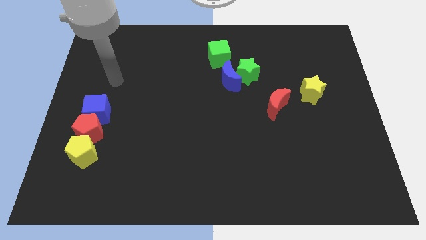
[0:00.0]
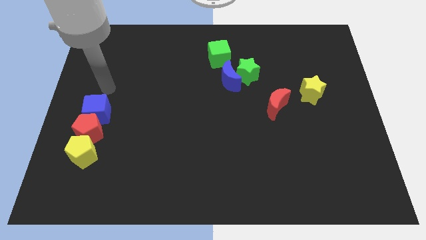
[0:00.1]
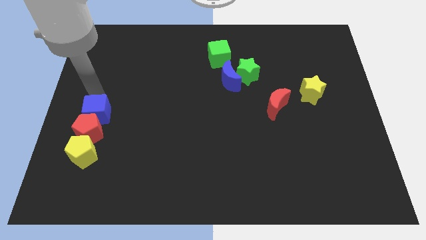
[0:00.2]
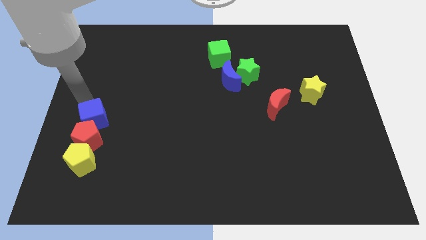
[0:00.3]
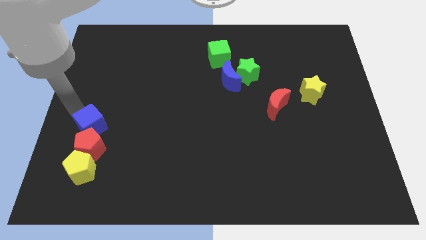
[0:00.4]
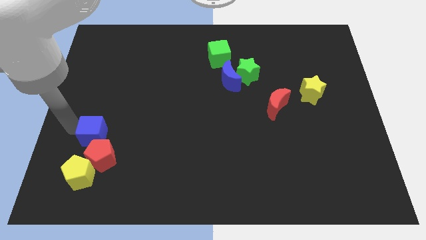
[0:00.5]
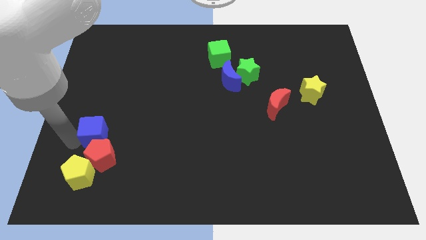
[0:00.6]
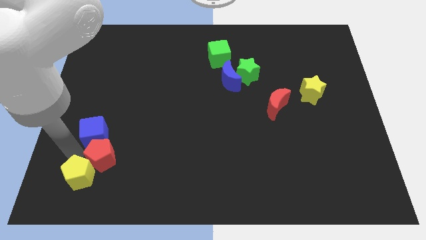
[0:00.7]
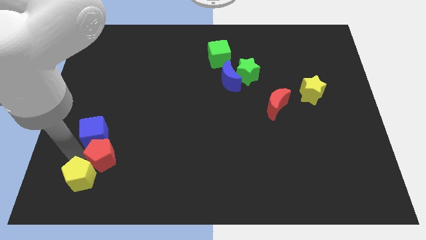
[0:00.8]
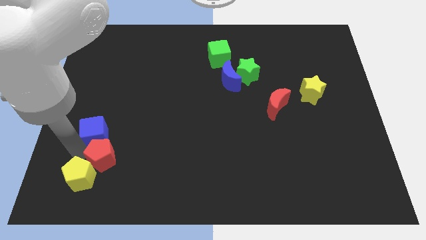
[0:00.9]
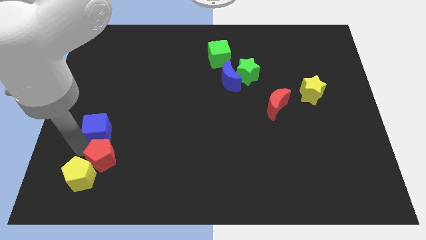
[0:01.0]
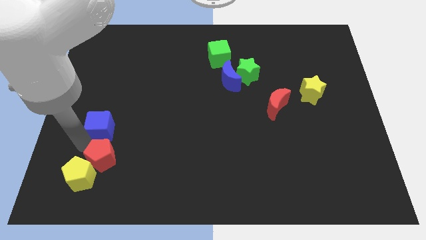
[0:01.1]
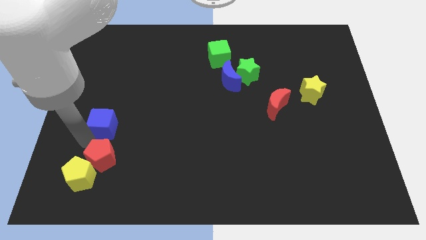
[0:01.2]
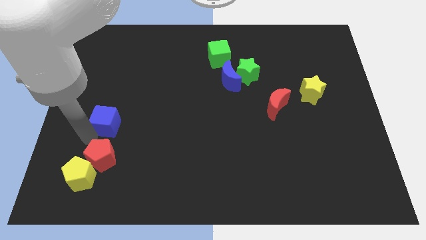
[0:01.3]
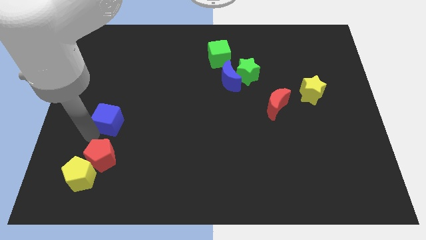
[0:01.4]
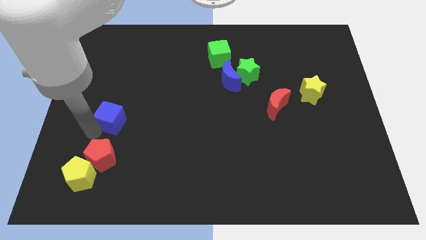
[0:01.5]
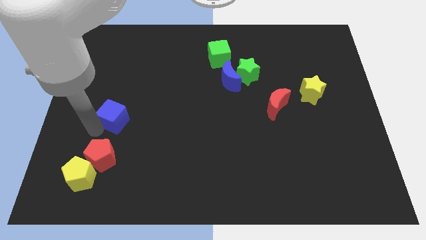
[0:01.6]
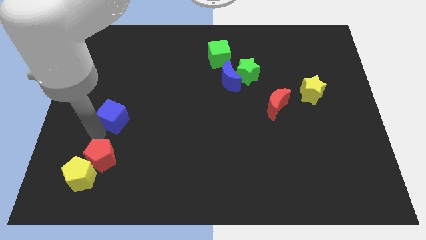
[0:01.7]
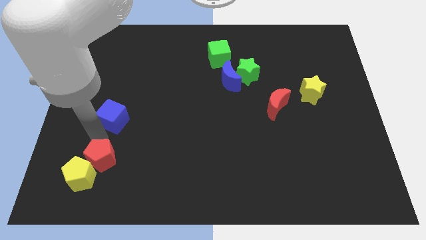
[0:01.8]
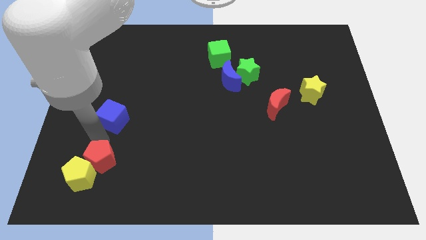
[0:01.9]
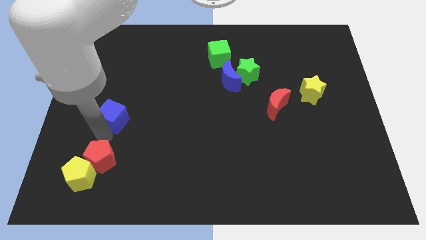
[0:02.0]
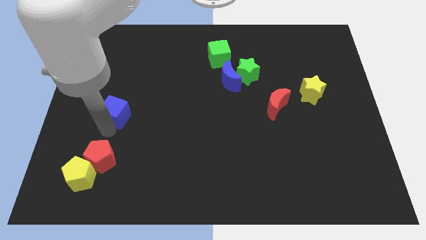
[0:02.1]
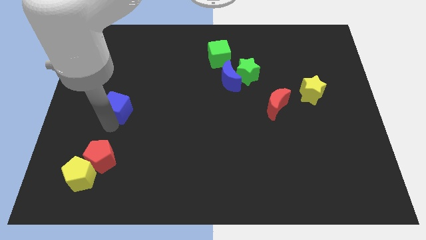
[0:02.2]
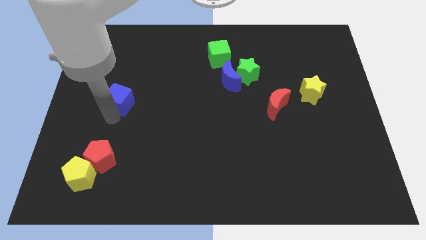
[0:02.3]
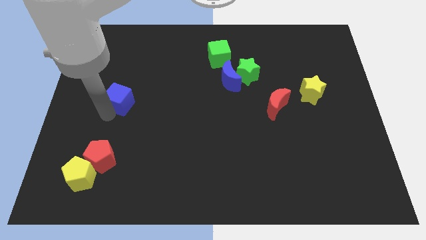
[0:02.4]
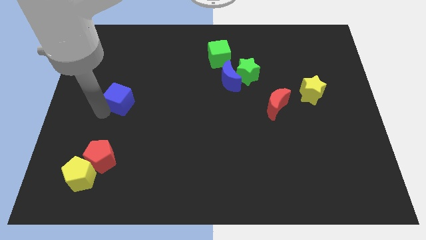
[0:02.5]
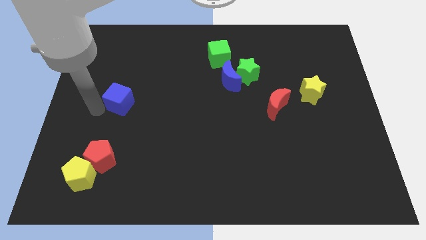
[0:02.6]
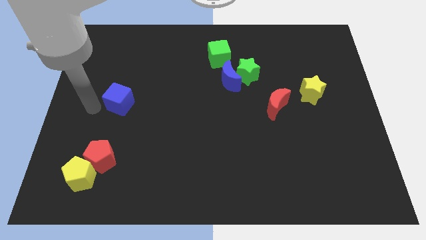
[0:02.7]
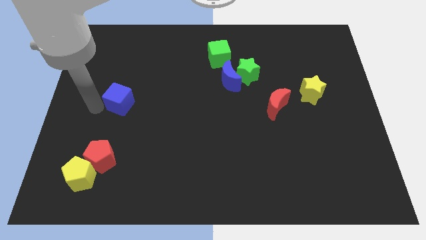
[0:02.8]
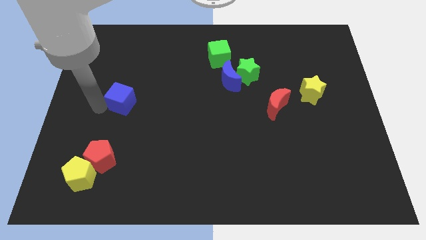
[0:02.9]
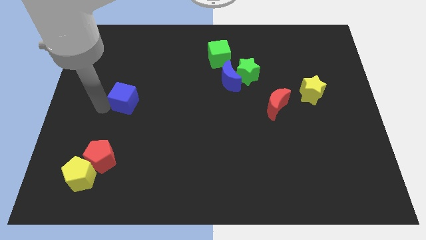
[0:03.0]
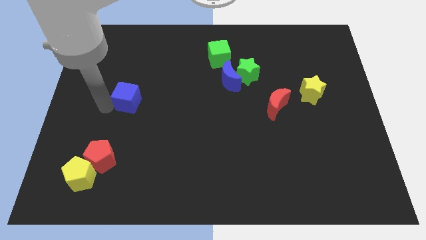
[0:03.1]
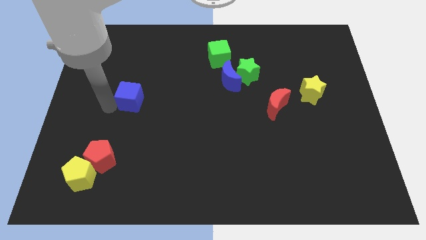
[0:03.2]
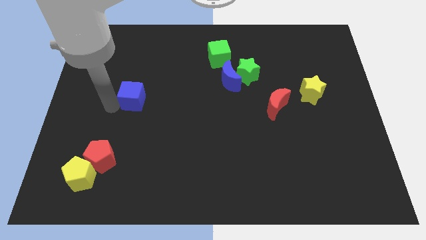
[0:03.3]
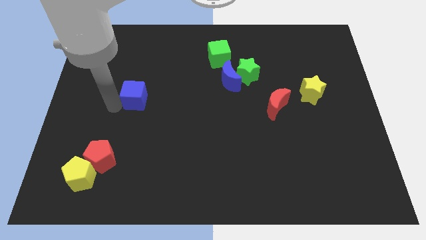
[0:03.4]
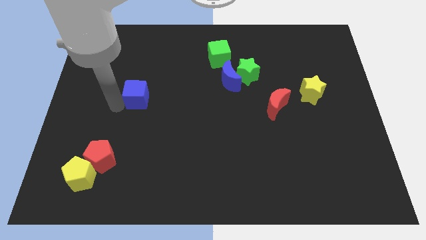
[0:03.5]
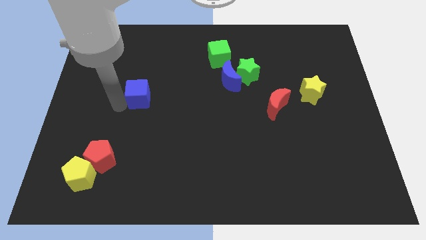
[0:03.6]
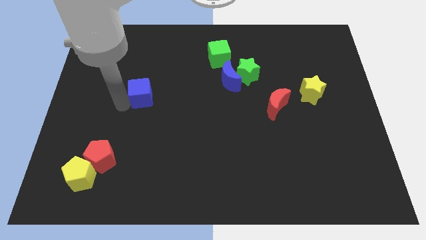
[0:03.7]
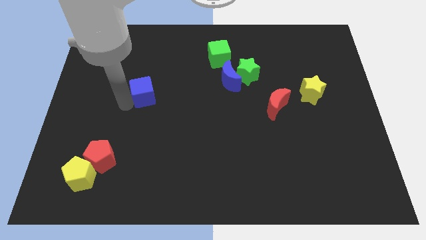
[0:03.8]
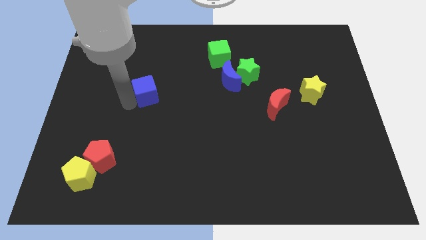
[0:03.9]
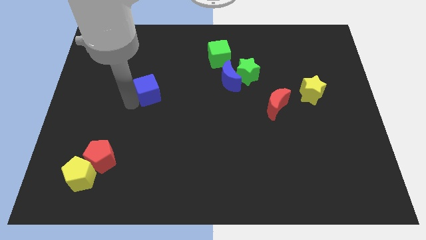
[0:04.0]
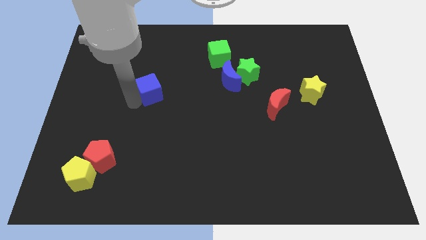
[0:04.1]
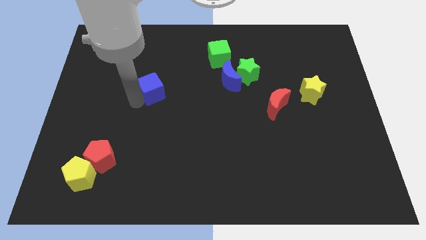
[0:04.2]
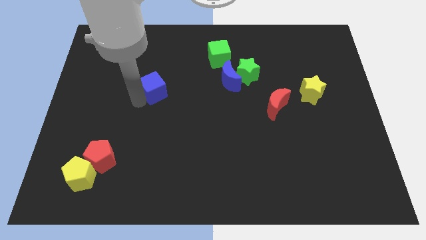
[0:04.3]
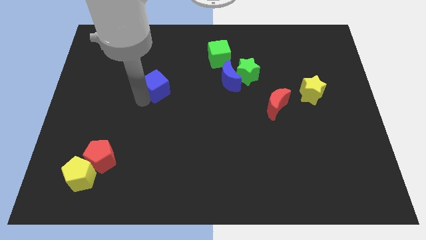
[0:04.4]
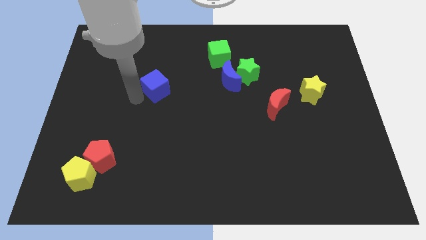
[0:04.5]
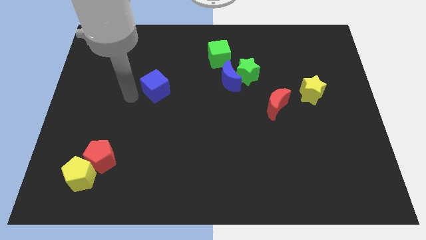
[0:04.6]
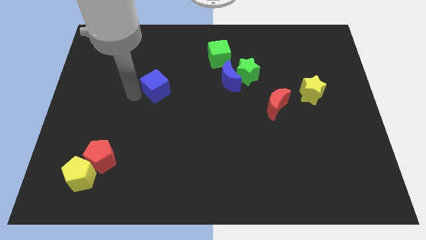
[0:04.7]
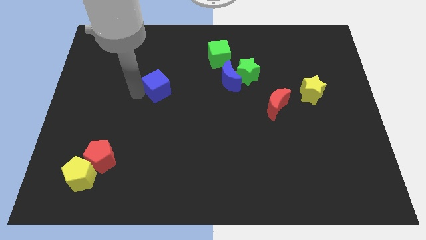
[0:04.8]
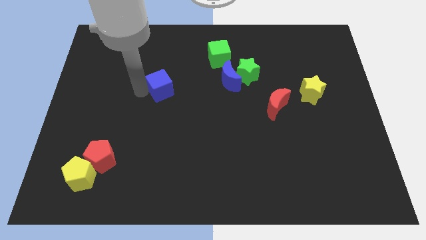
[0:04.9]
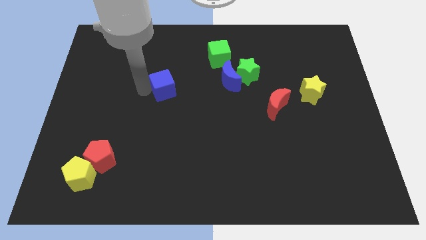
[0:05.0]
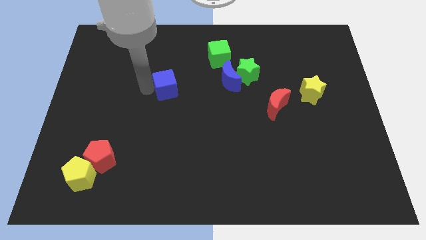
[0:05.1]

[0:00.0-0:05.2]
move the blue cube to the left of the blue moon
